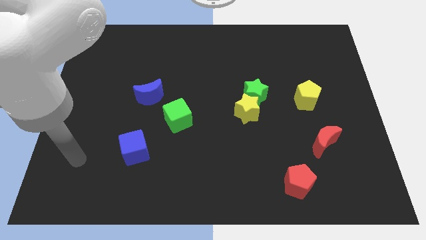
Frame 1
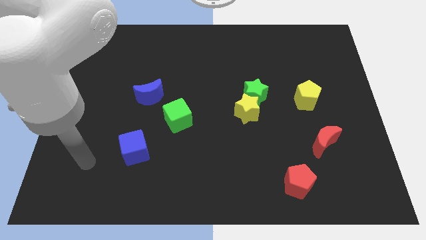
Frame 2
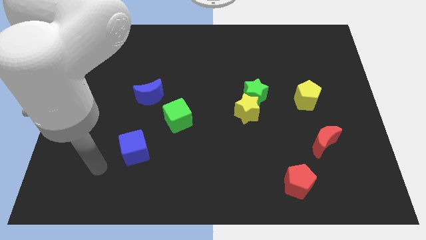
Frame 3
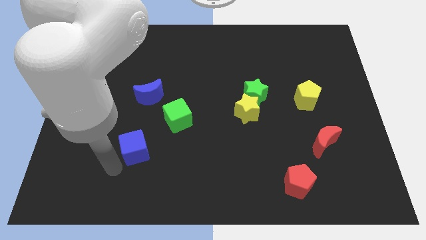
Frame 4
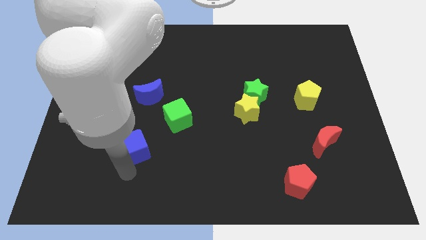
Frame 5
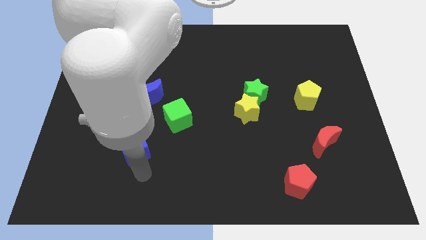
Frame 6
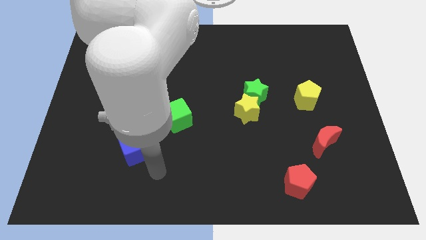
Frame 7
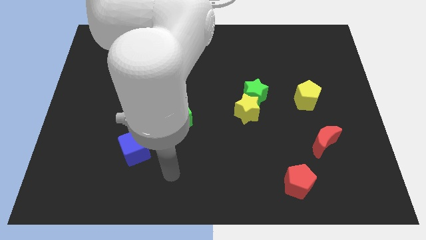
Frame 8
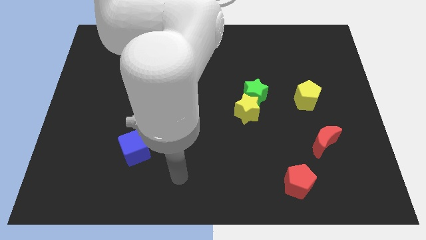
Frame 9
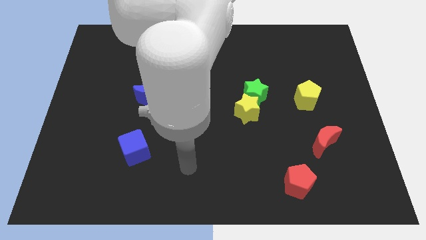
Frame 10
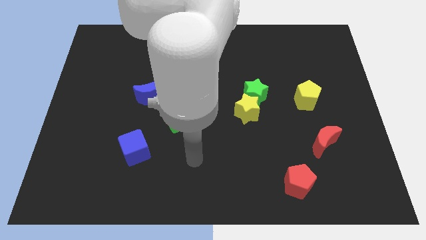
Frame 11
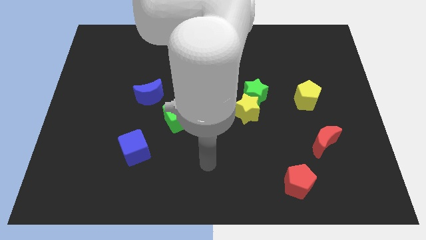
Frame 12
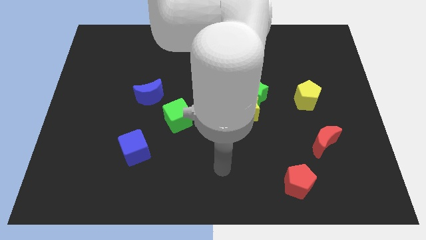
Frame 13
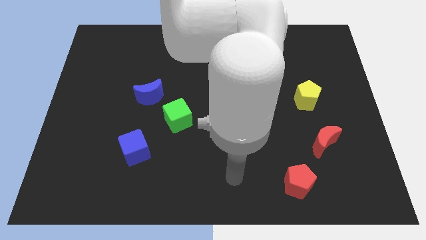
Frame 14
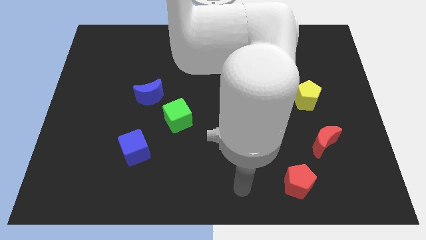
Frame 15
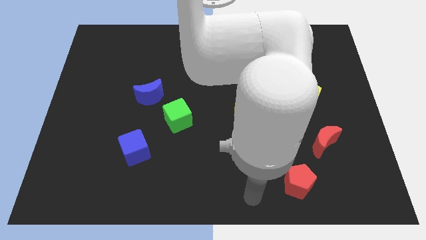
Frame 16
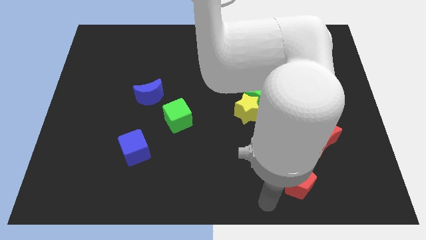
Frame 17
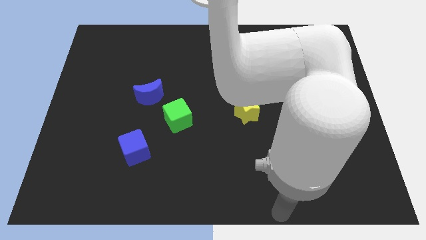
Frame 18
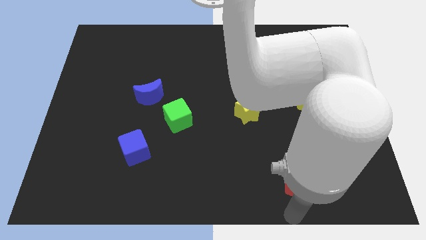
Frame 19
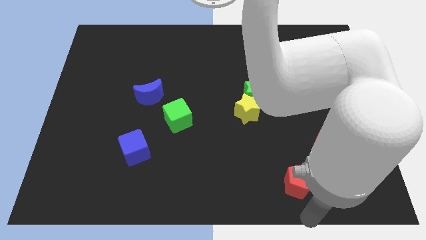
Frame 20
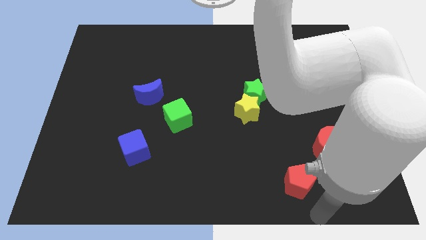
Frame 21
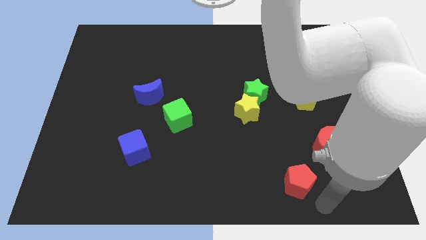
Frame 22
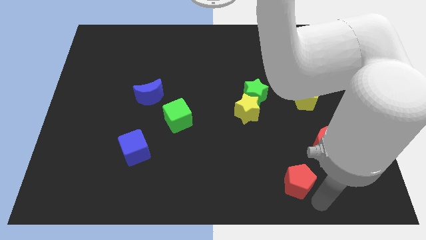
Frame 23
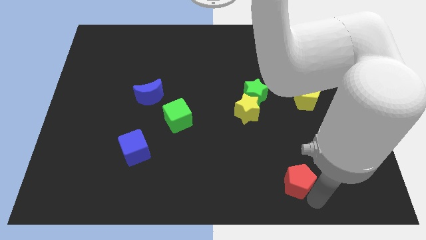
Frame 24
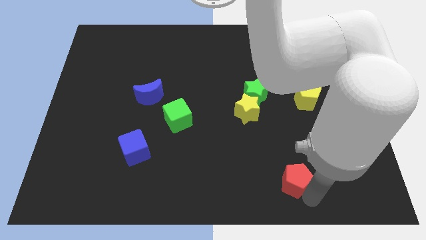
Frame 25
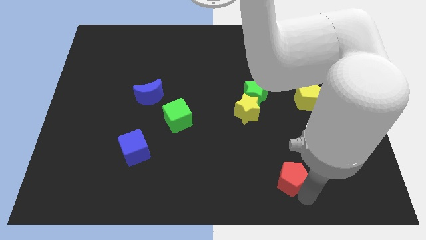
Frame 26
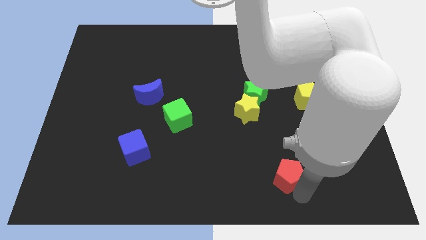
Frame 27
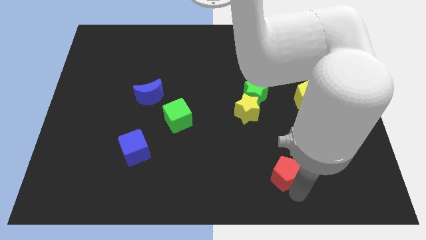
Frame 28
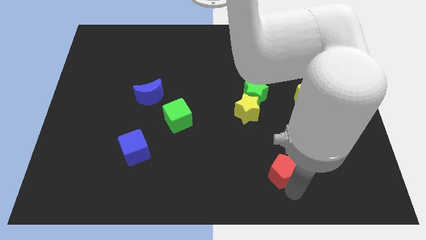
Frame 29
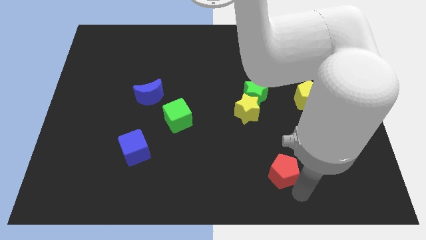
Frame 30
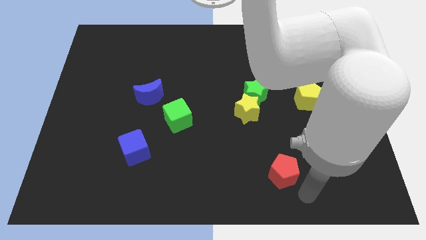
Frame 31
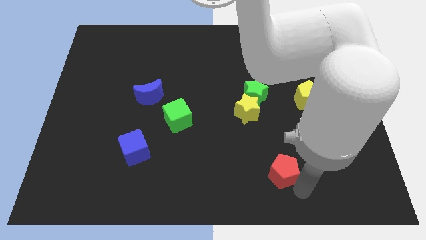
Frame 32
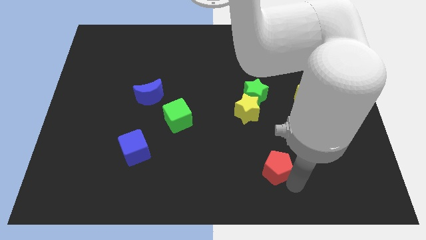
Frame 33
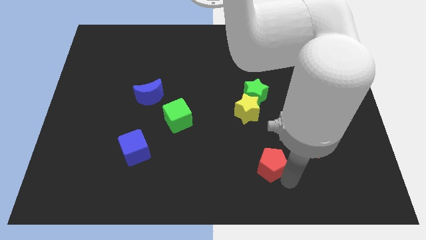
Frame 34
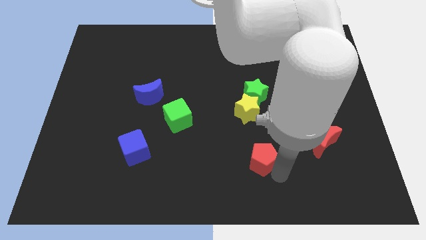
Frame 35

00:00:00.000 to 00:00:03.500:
move the red pentagon upwards and then to the left somewhat

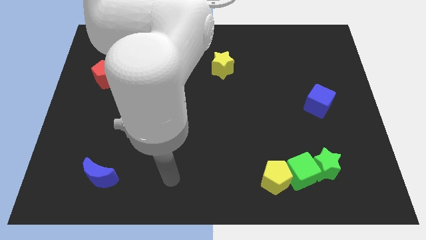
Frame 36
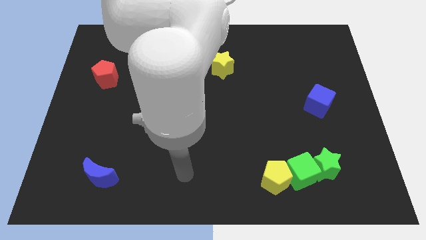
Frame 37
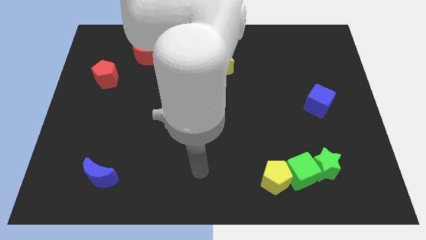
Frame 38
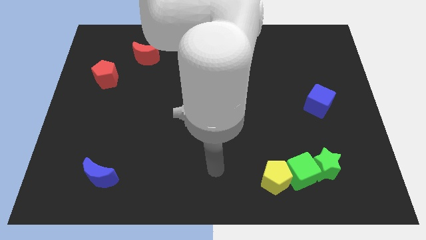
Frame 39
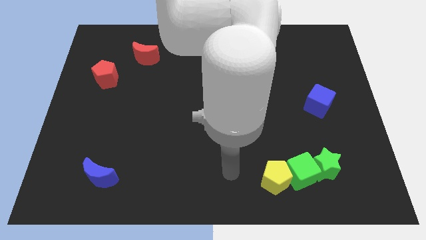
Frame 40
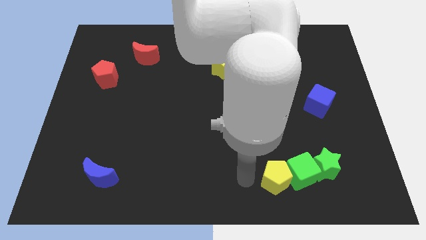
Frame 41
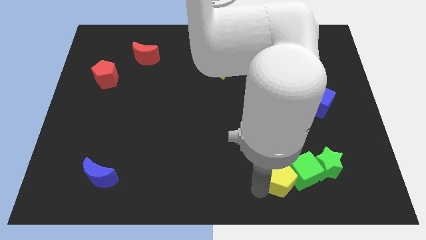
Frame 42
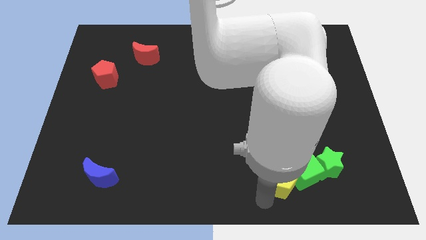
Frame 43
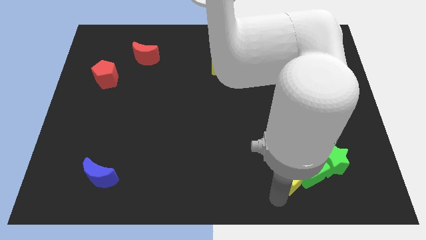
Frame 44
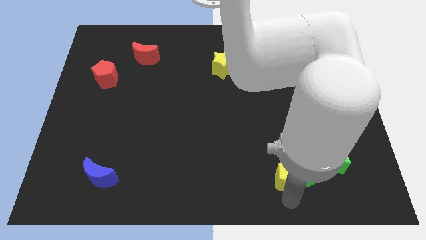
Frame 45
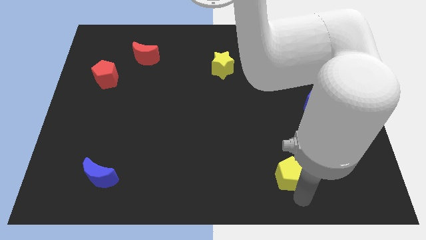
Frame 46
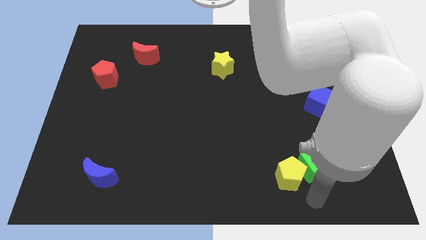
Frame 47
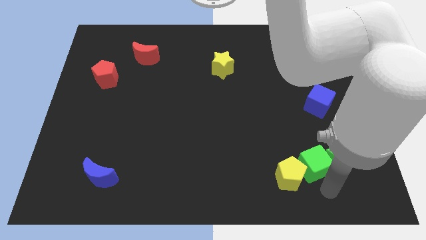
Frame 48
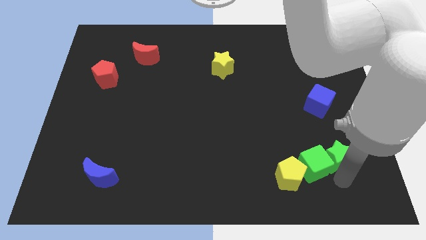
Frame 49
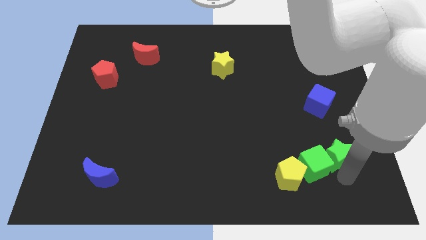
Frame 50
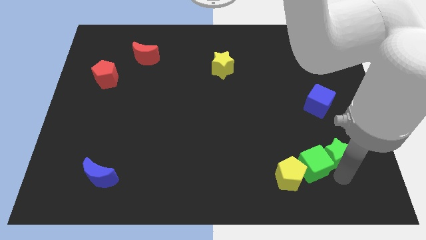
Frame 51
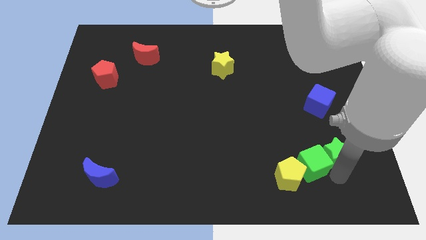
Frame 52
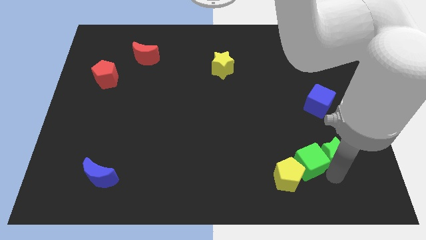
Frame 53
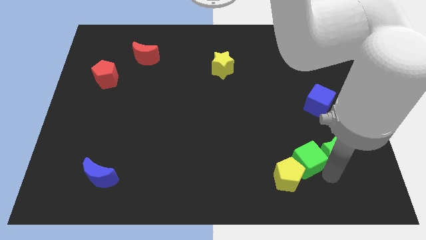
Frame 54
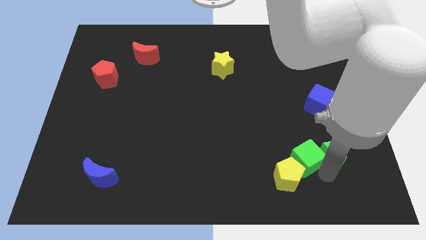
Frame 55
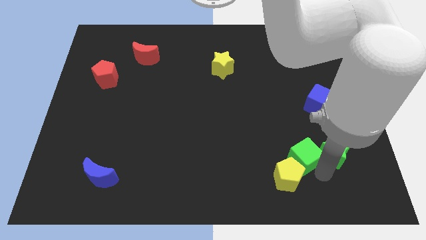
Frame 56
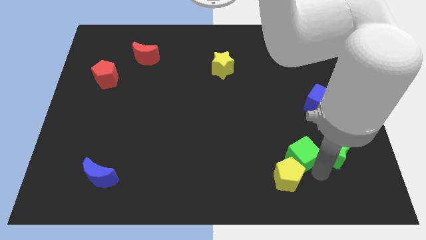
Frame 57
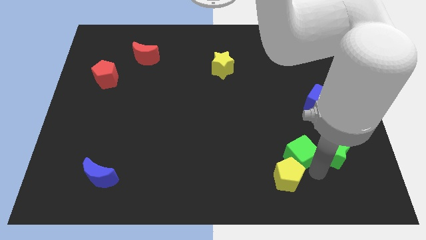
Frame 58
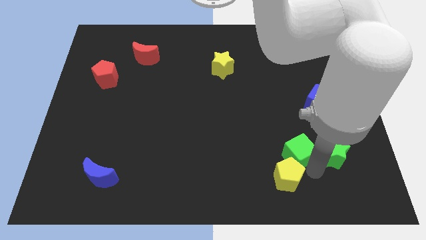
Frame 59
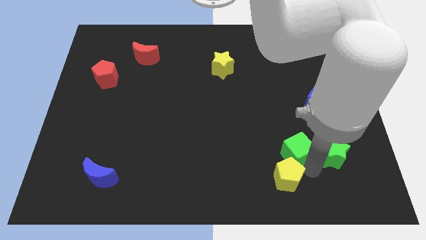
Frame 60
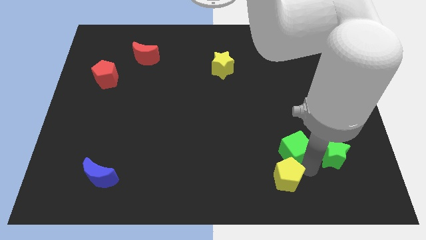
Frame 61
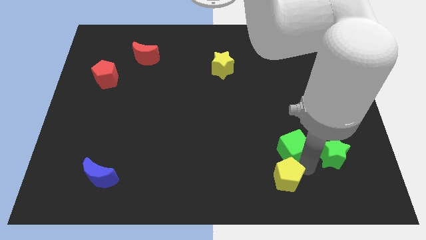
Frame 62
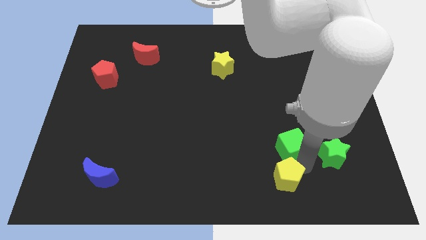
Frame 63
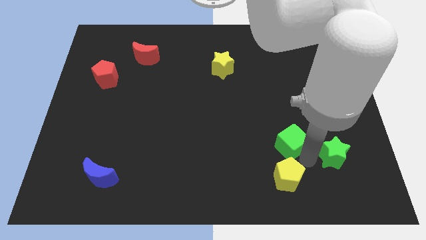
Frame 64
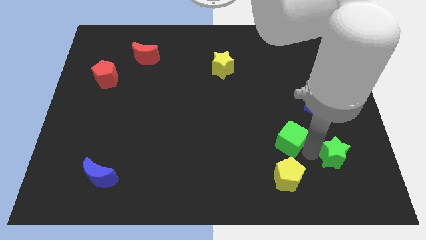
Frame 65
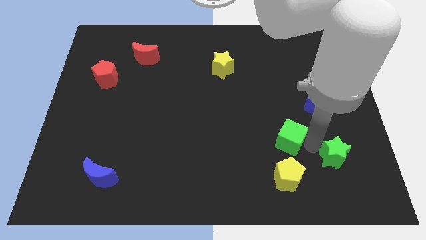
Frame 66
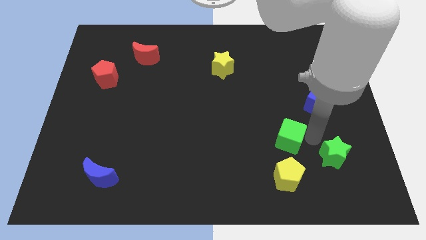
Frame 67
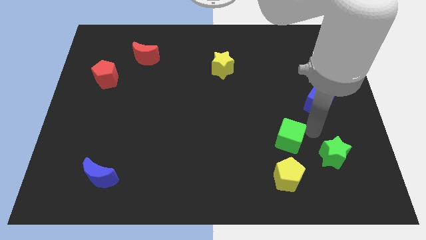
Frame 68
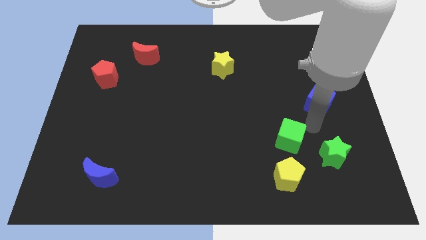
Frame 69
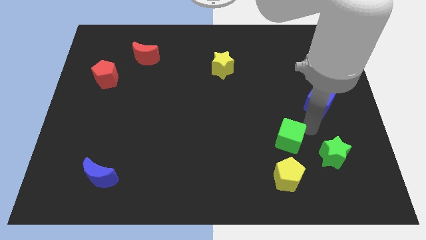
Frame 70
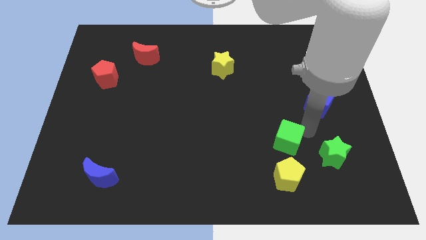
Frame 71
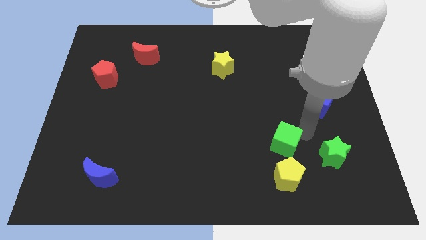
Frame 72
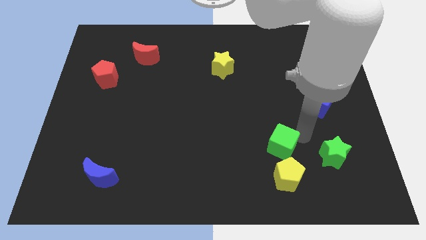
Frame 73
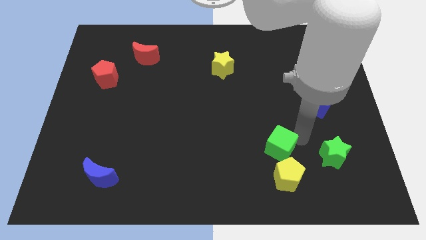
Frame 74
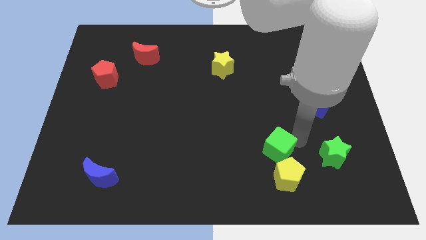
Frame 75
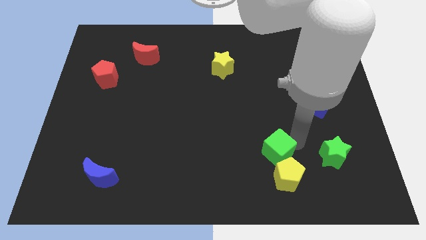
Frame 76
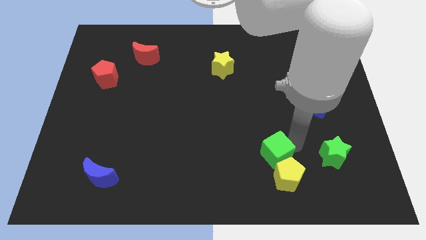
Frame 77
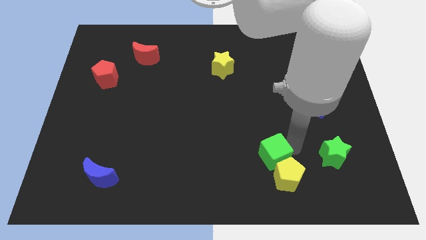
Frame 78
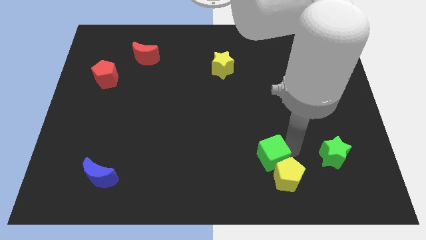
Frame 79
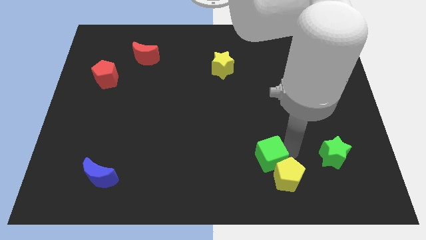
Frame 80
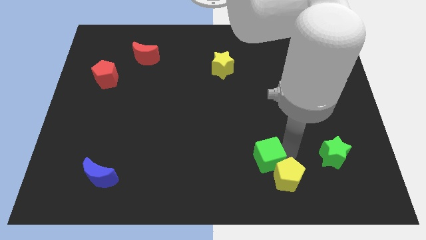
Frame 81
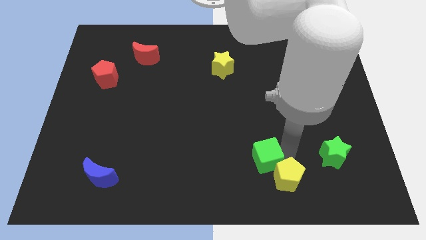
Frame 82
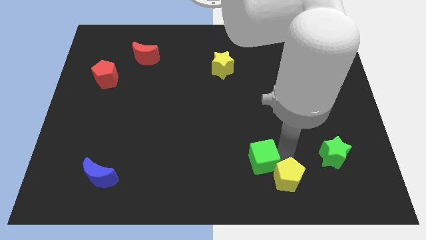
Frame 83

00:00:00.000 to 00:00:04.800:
move the green cube left somewhat
